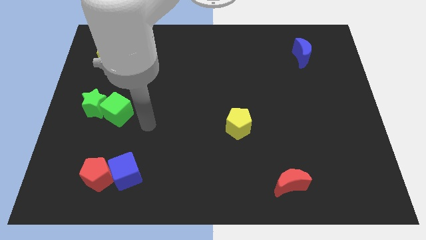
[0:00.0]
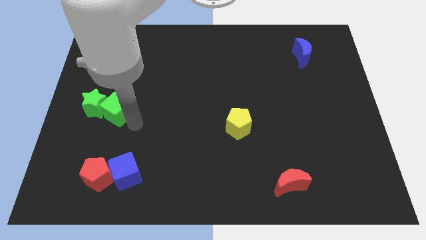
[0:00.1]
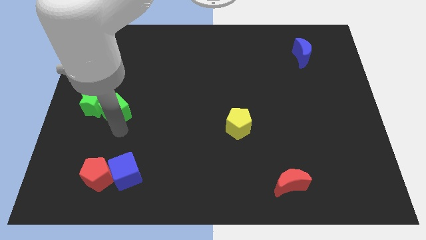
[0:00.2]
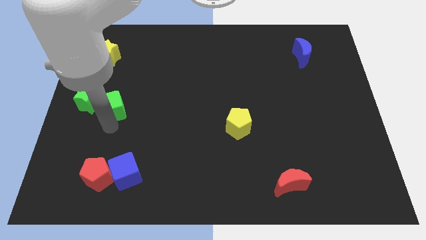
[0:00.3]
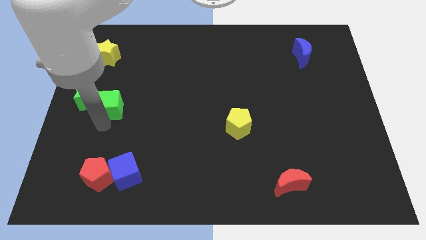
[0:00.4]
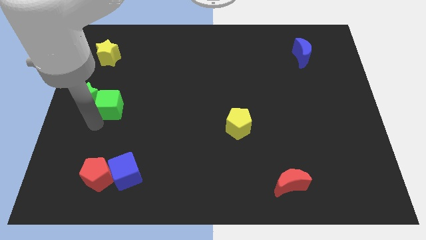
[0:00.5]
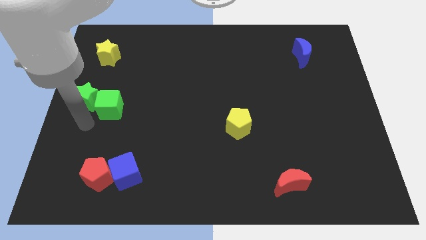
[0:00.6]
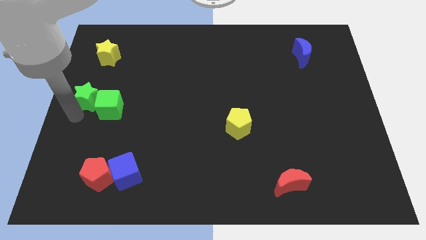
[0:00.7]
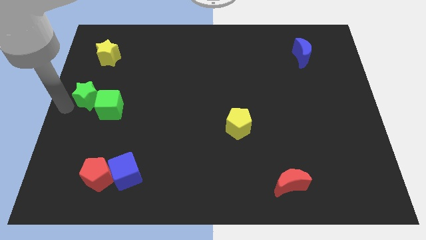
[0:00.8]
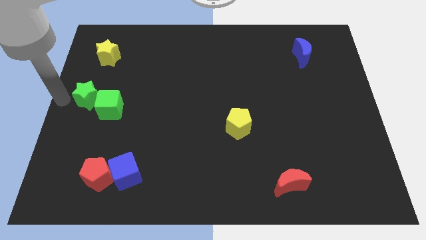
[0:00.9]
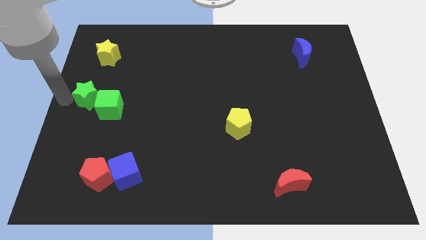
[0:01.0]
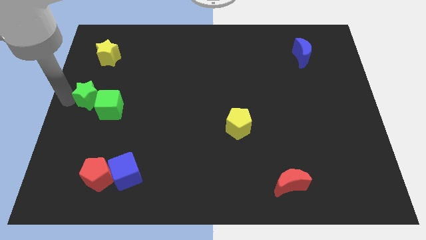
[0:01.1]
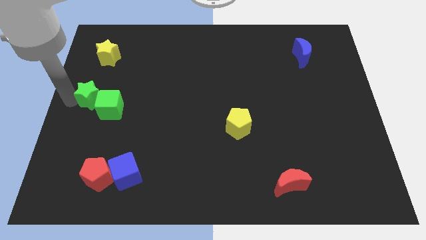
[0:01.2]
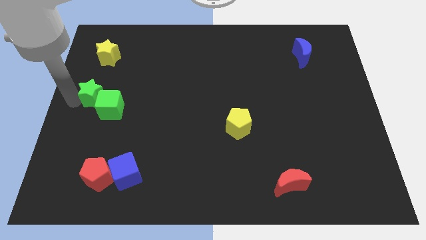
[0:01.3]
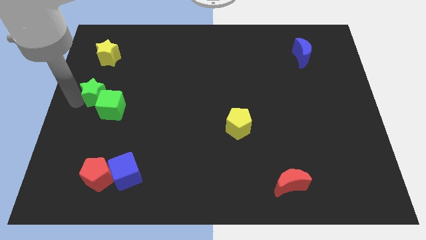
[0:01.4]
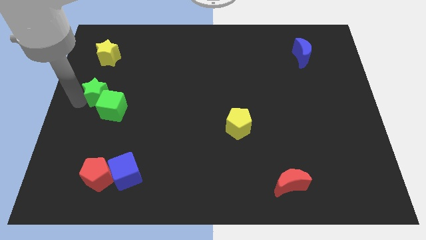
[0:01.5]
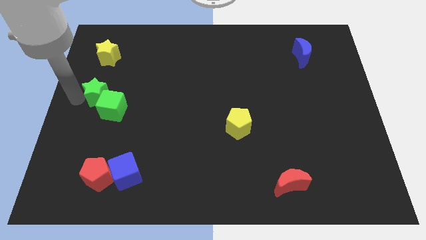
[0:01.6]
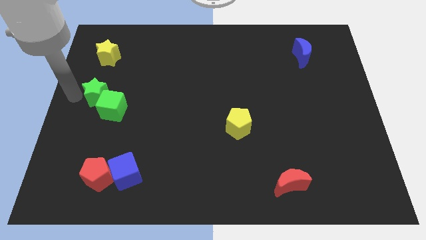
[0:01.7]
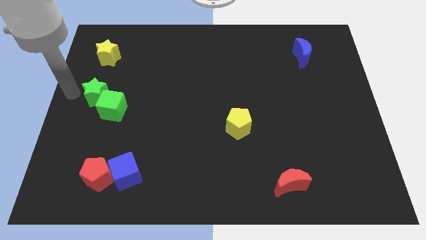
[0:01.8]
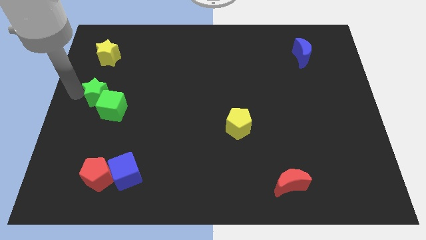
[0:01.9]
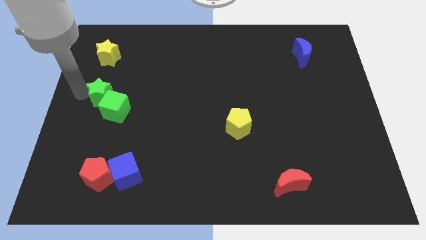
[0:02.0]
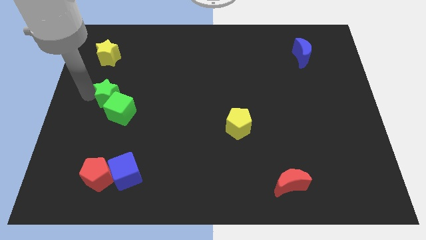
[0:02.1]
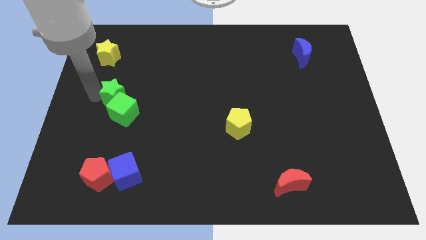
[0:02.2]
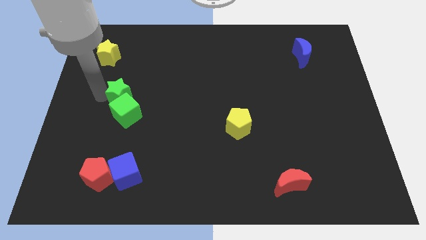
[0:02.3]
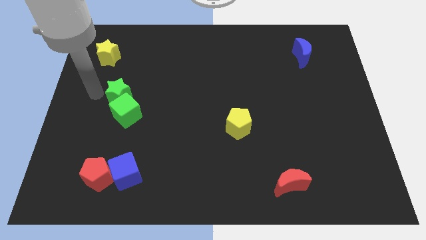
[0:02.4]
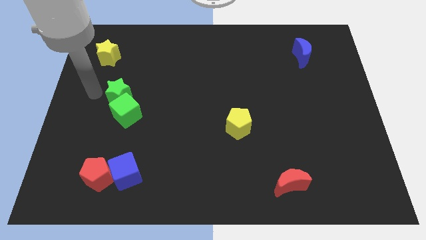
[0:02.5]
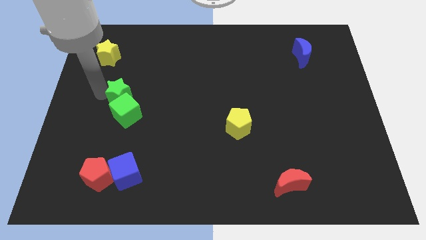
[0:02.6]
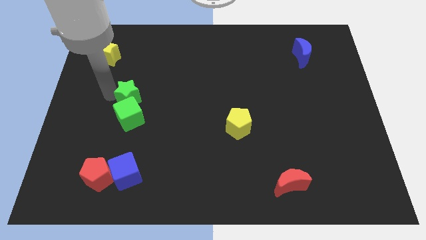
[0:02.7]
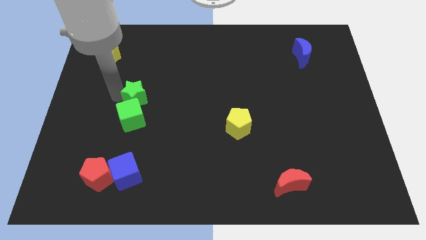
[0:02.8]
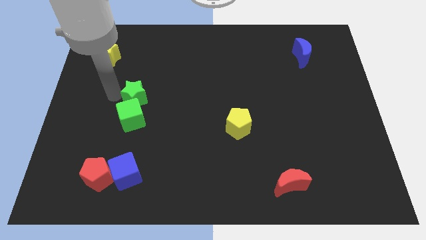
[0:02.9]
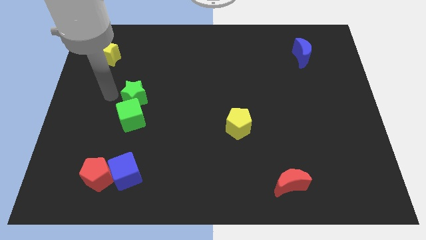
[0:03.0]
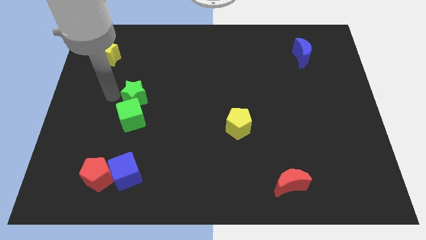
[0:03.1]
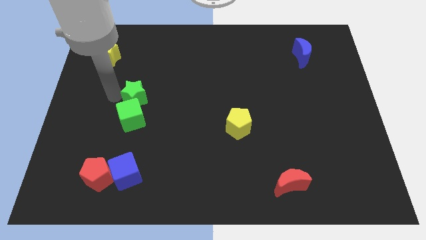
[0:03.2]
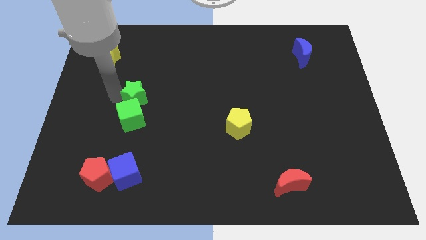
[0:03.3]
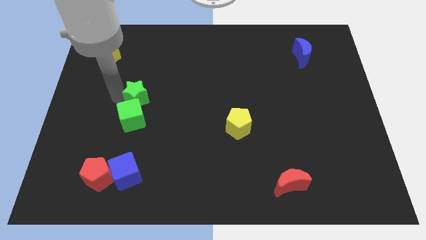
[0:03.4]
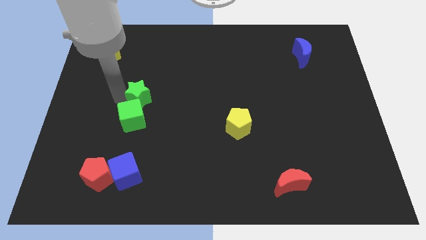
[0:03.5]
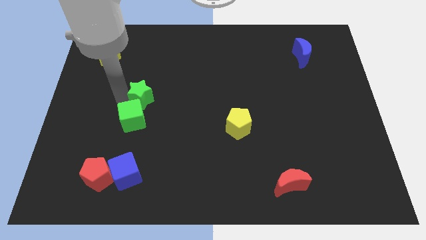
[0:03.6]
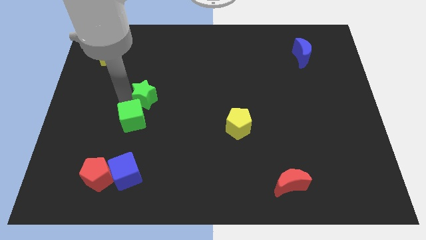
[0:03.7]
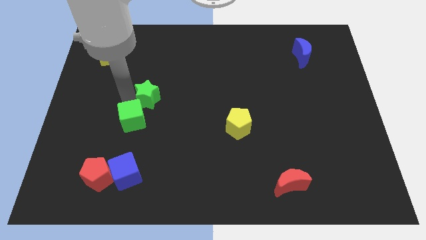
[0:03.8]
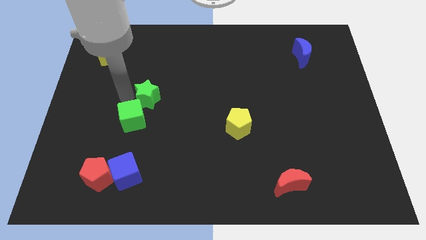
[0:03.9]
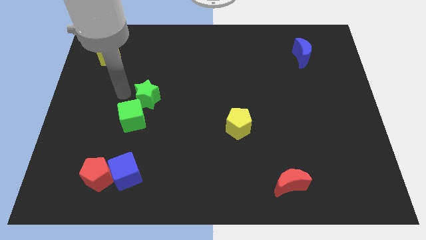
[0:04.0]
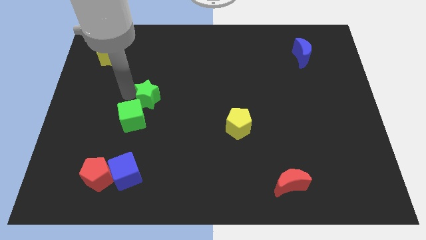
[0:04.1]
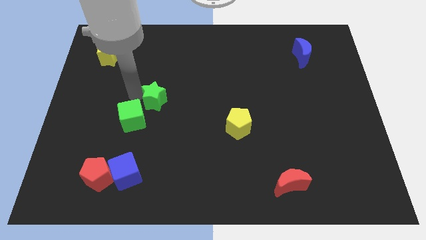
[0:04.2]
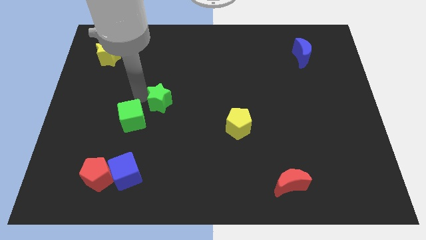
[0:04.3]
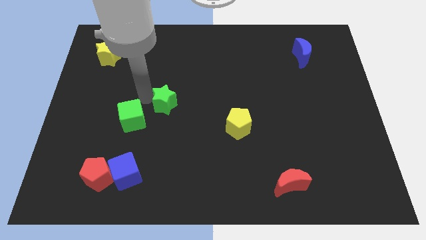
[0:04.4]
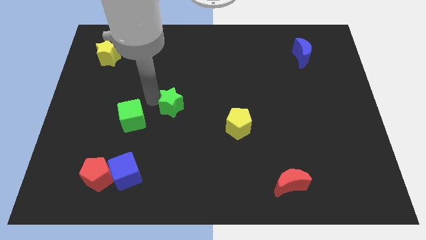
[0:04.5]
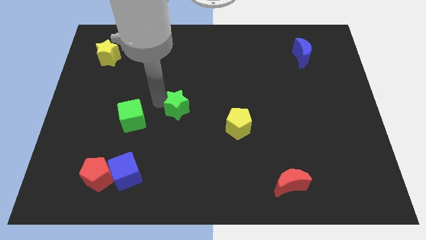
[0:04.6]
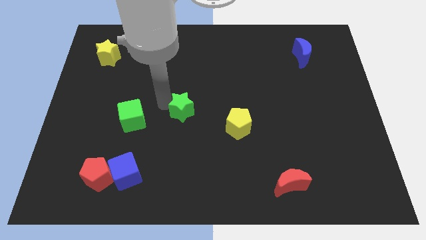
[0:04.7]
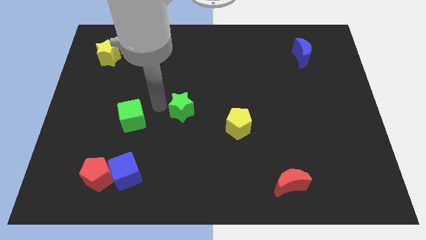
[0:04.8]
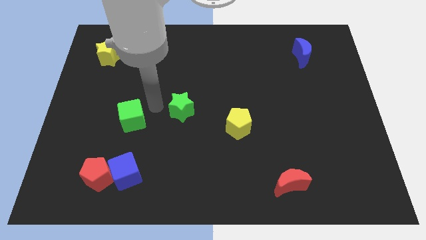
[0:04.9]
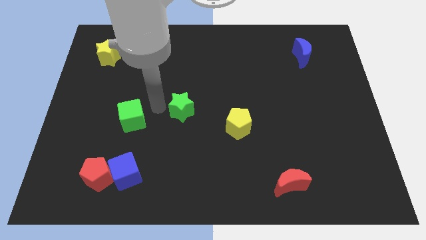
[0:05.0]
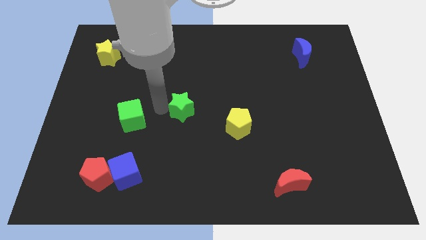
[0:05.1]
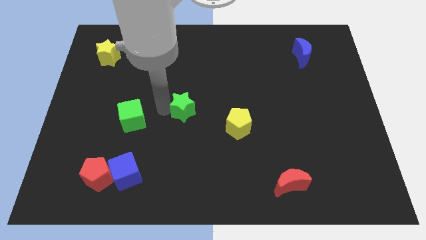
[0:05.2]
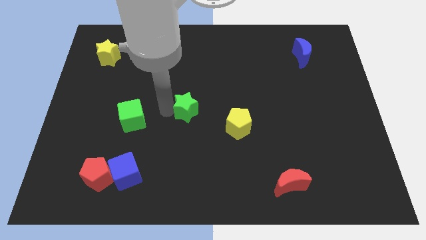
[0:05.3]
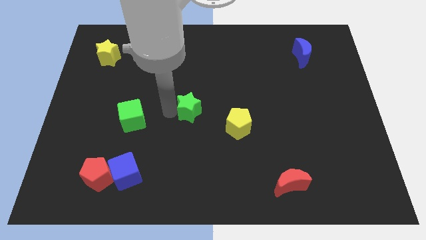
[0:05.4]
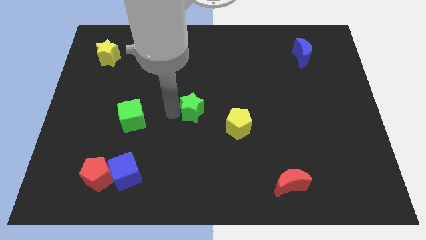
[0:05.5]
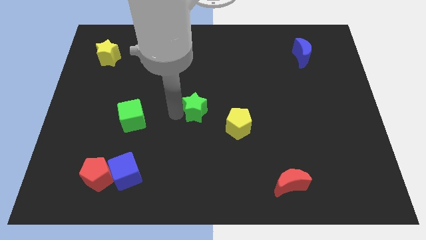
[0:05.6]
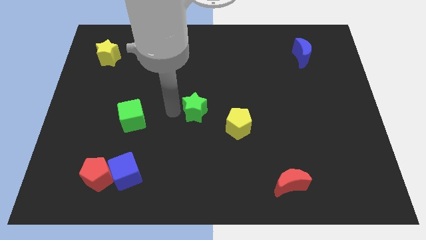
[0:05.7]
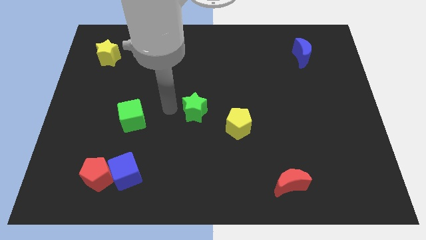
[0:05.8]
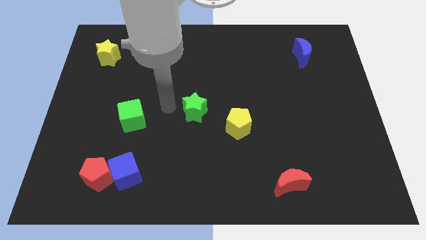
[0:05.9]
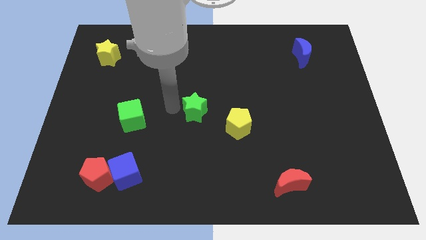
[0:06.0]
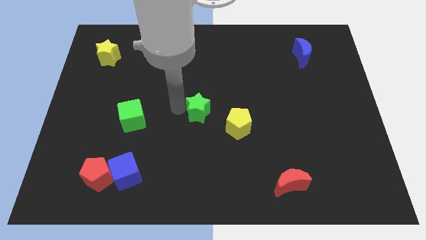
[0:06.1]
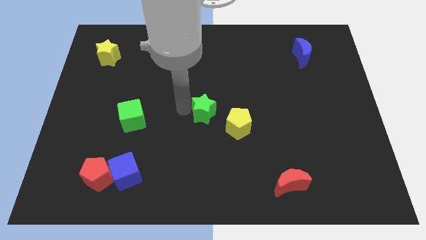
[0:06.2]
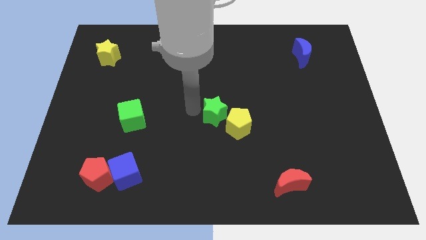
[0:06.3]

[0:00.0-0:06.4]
push the green star to the yellow pentagon

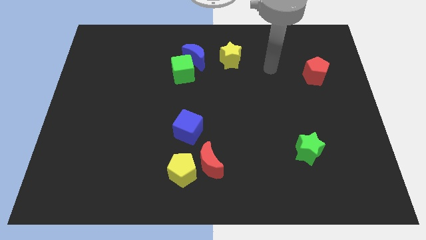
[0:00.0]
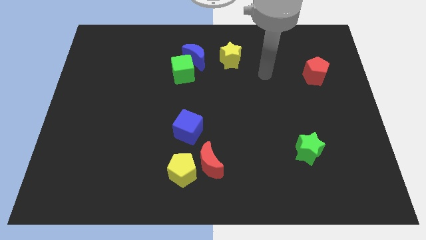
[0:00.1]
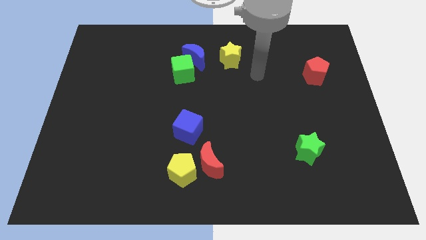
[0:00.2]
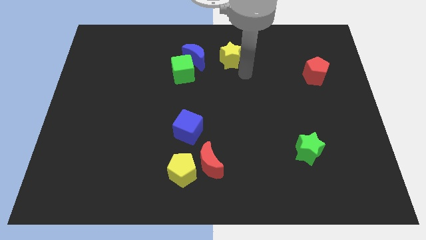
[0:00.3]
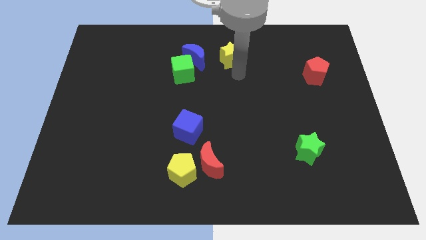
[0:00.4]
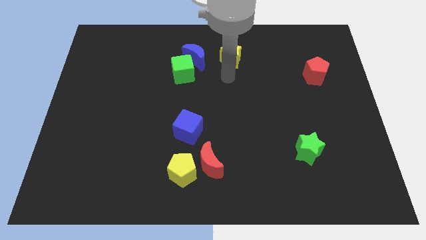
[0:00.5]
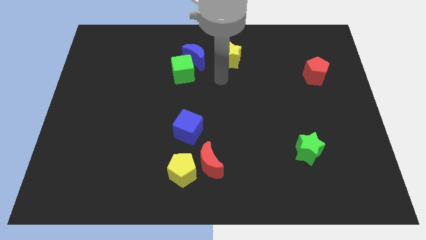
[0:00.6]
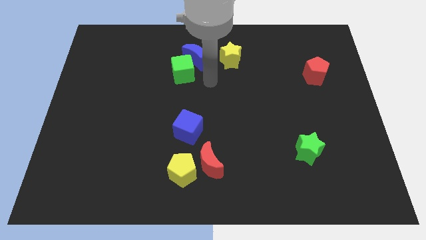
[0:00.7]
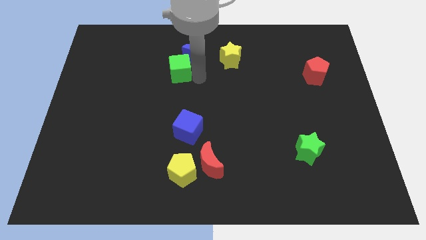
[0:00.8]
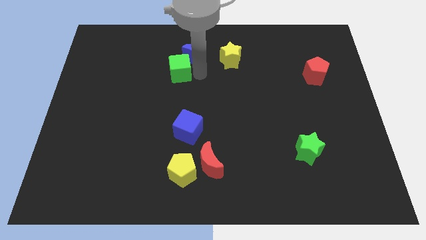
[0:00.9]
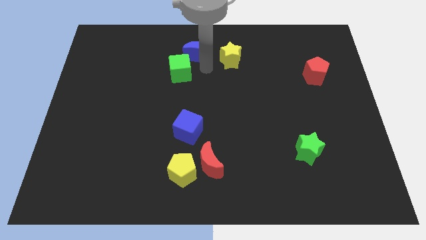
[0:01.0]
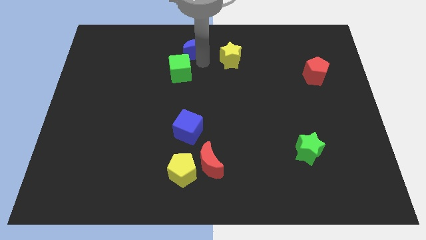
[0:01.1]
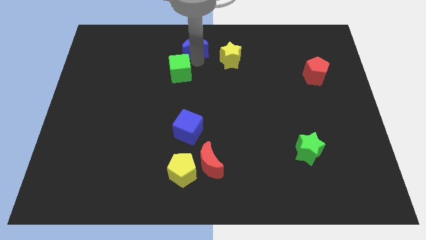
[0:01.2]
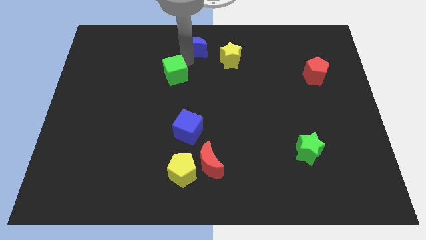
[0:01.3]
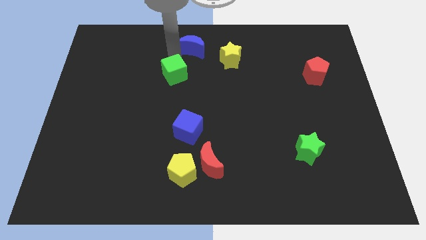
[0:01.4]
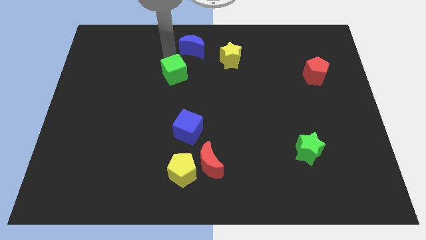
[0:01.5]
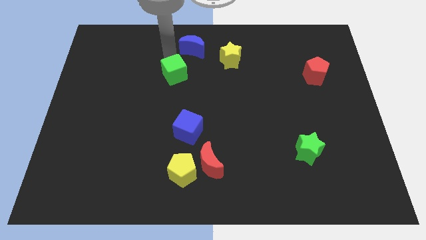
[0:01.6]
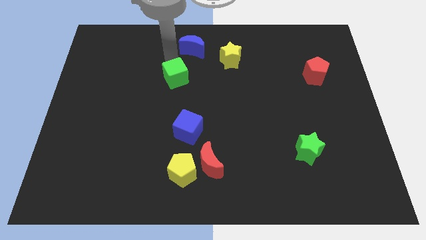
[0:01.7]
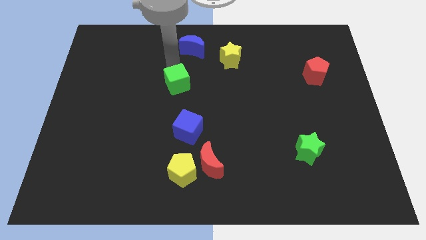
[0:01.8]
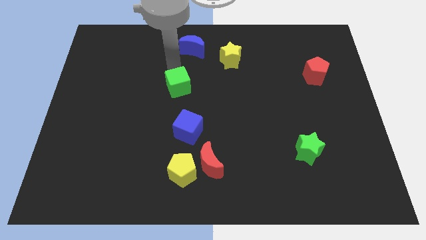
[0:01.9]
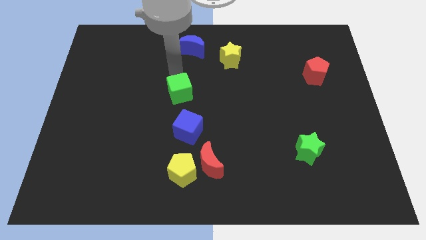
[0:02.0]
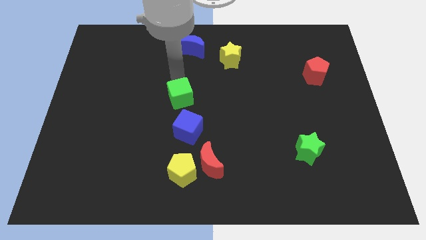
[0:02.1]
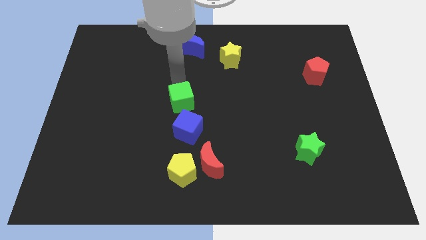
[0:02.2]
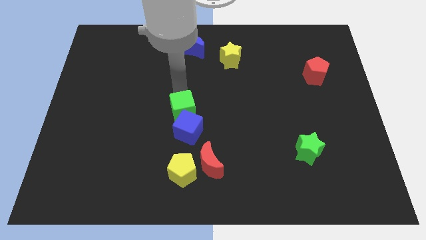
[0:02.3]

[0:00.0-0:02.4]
move the green cube next to the blue cube
